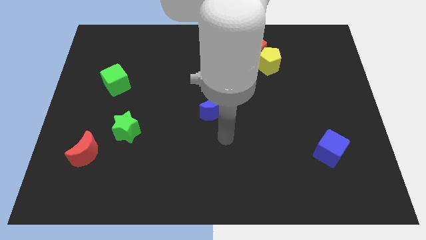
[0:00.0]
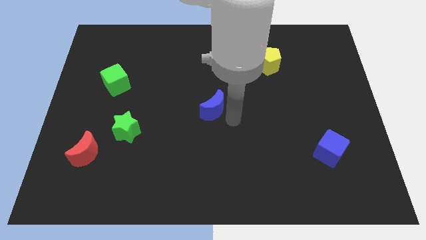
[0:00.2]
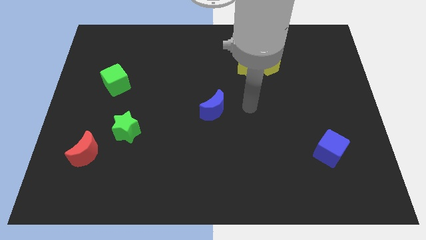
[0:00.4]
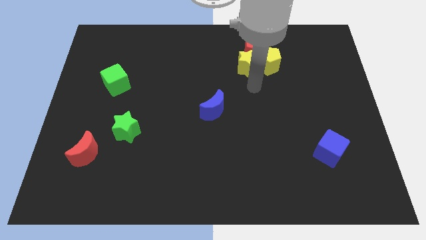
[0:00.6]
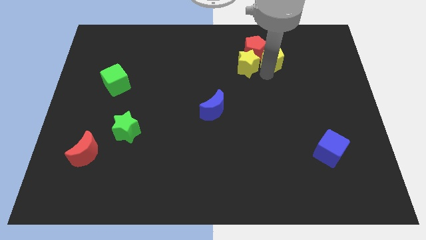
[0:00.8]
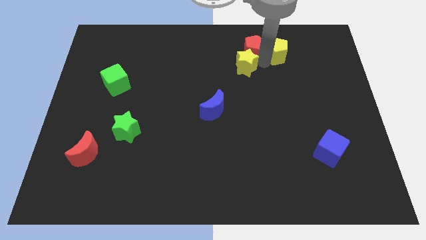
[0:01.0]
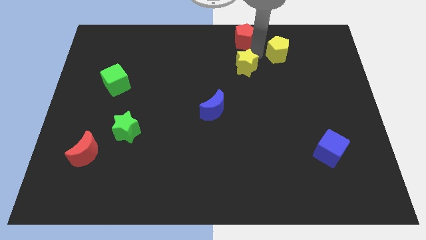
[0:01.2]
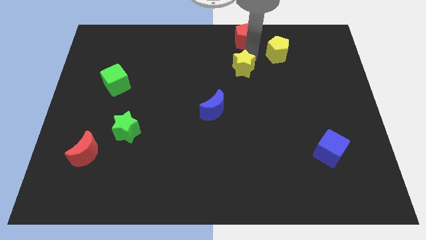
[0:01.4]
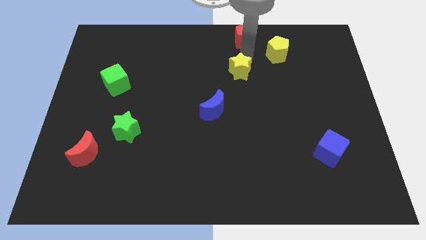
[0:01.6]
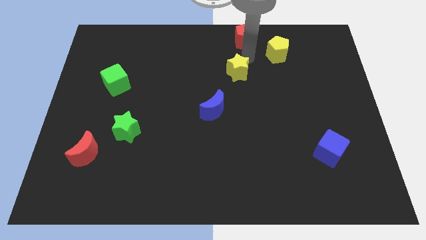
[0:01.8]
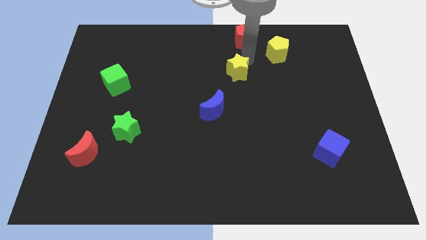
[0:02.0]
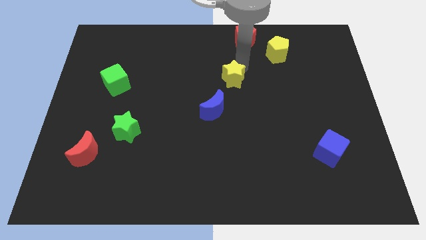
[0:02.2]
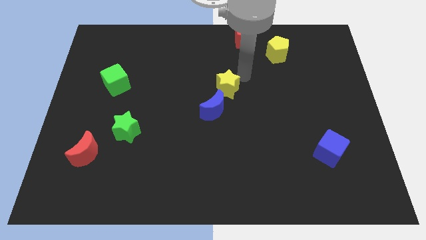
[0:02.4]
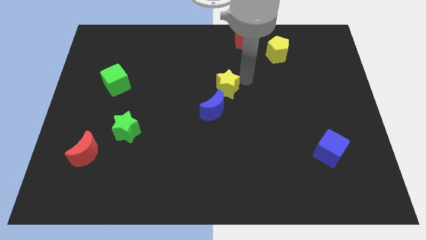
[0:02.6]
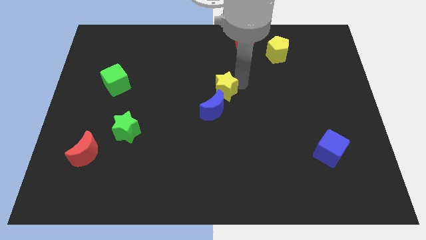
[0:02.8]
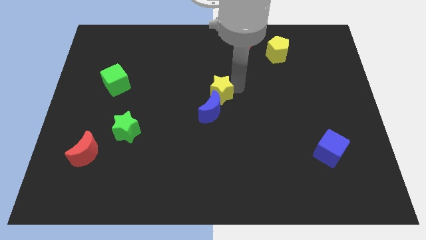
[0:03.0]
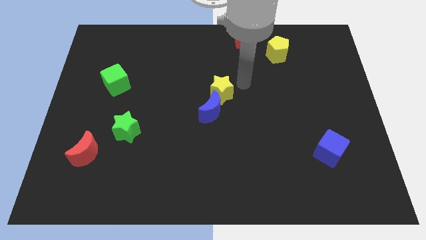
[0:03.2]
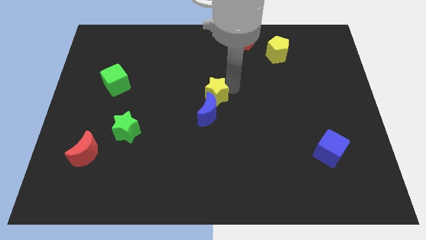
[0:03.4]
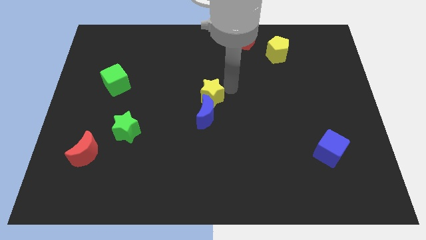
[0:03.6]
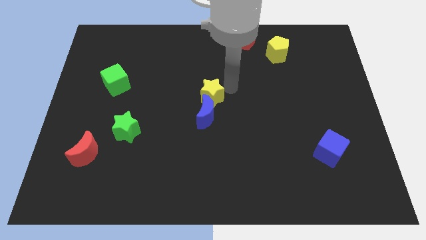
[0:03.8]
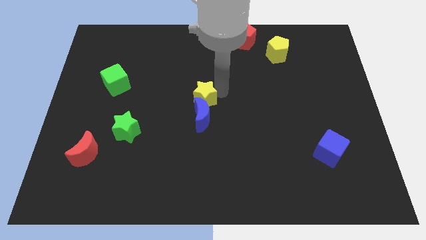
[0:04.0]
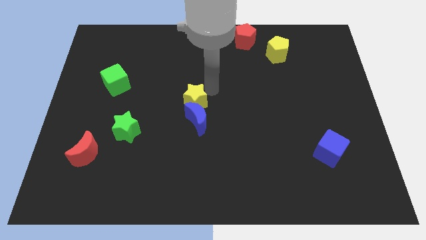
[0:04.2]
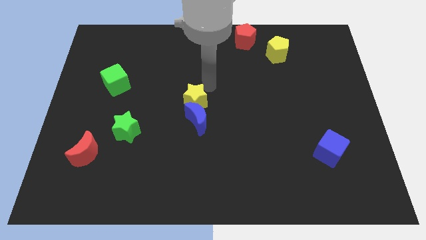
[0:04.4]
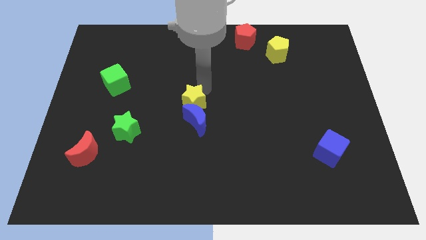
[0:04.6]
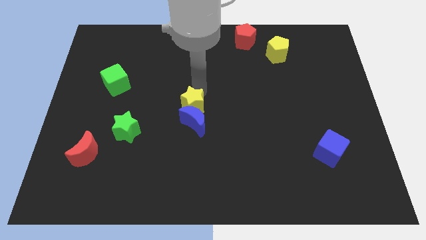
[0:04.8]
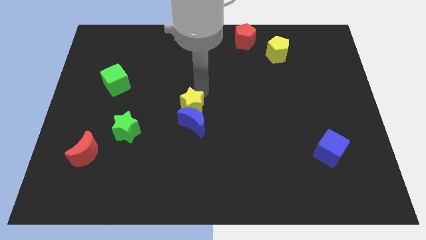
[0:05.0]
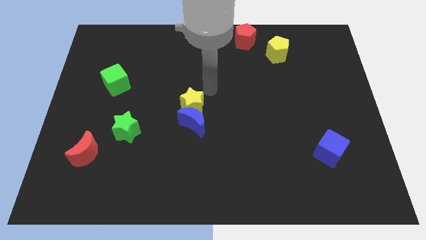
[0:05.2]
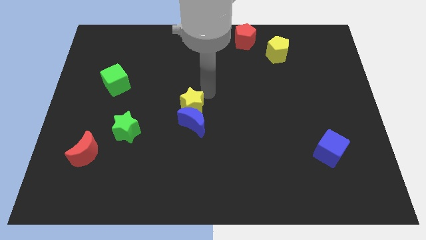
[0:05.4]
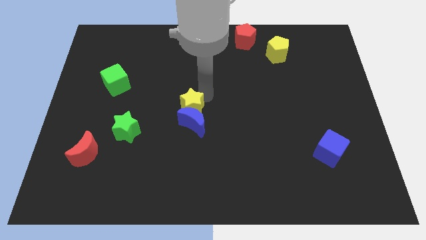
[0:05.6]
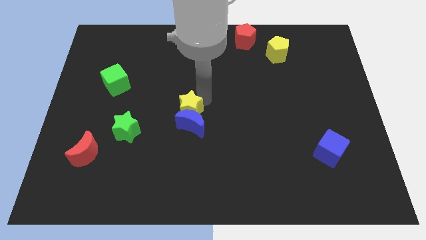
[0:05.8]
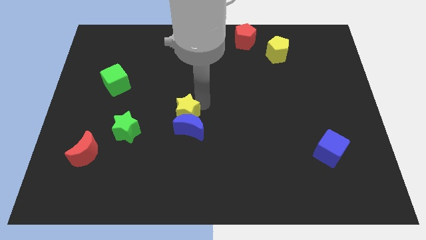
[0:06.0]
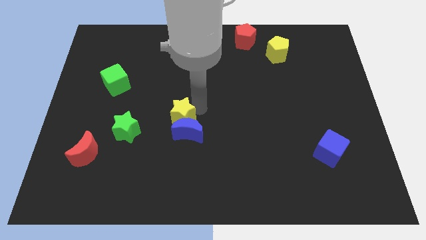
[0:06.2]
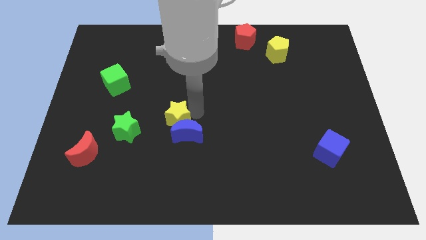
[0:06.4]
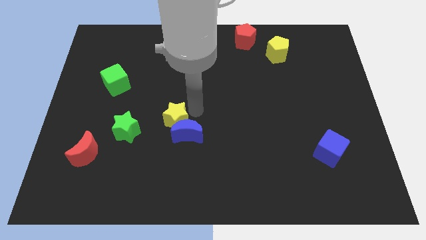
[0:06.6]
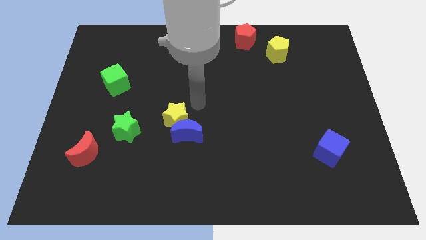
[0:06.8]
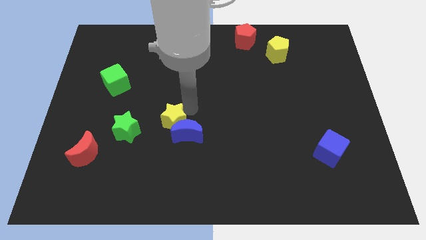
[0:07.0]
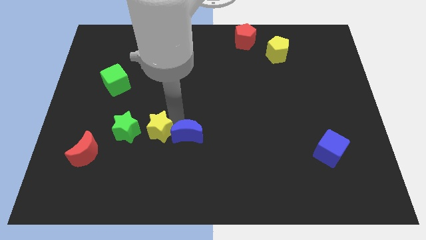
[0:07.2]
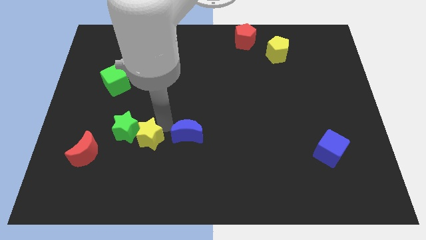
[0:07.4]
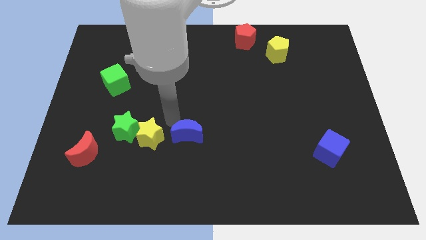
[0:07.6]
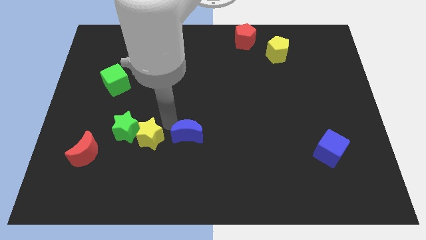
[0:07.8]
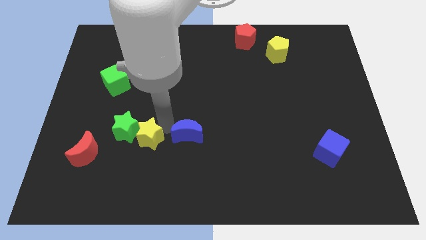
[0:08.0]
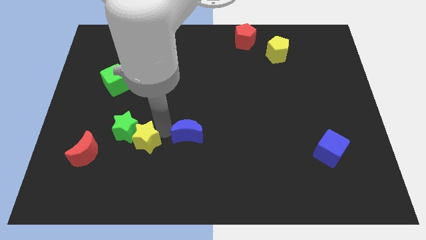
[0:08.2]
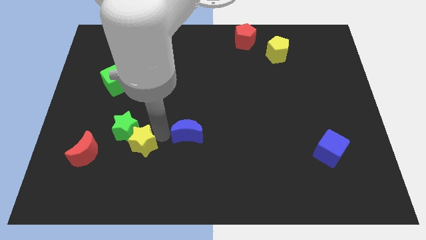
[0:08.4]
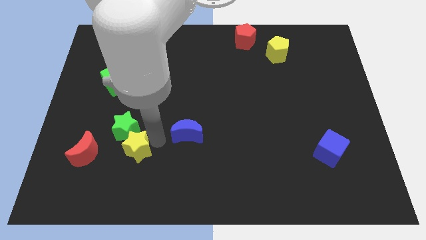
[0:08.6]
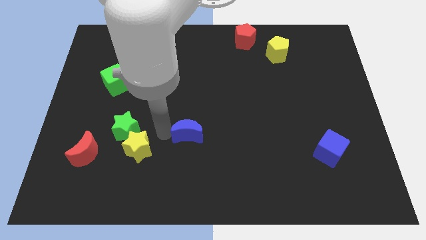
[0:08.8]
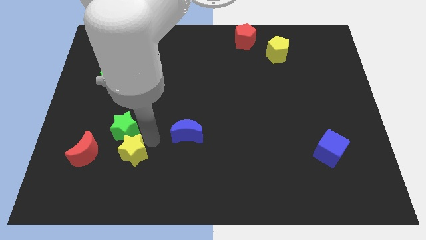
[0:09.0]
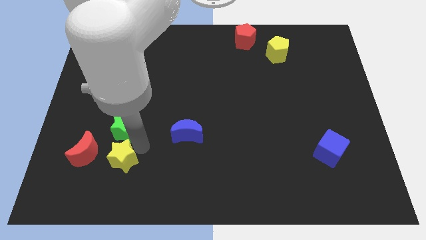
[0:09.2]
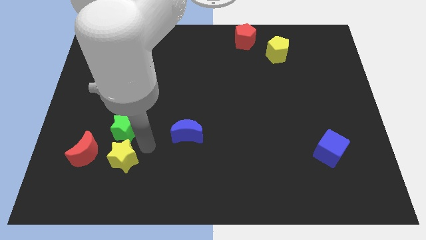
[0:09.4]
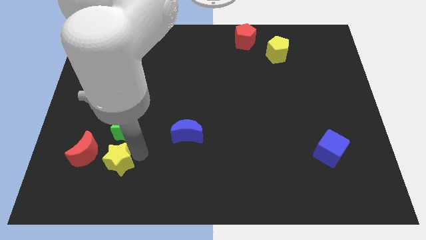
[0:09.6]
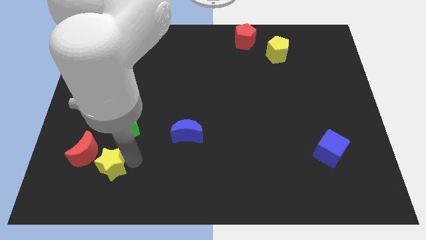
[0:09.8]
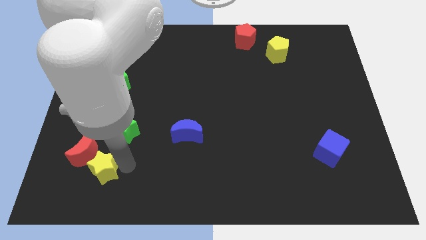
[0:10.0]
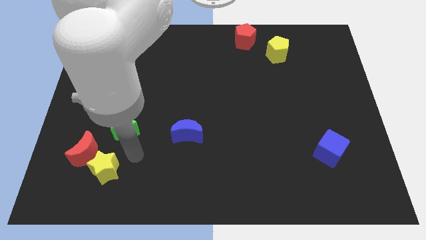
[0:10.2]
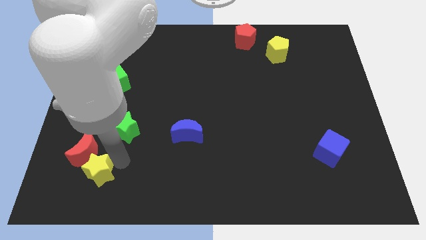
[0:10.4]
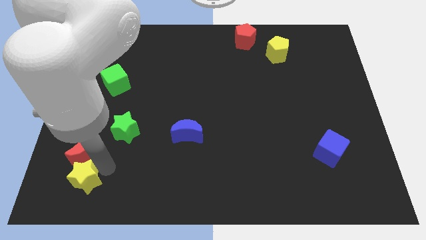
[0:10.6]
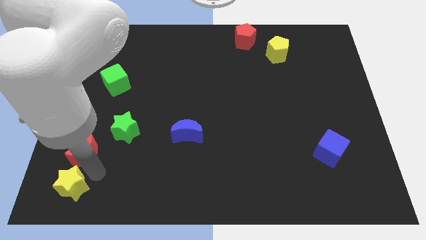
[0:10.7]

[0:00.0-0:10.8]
put the yellow star to the lower left corner
